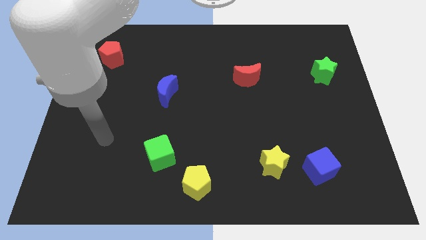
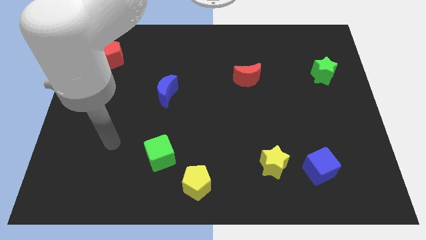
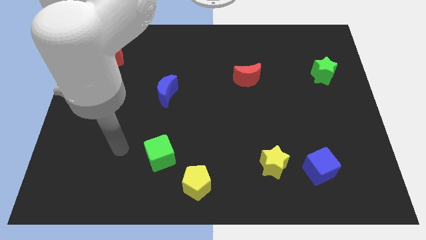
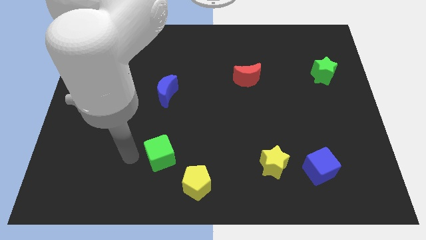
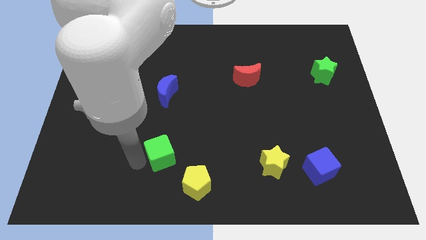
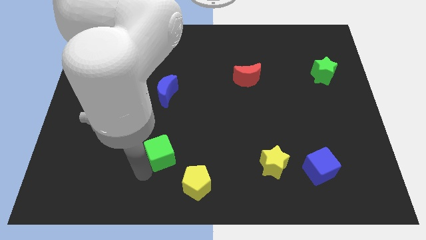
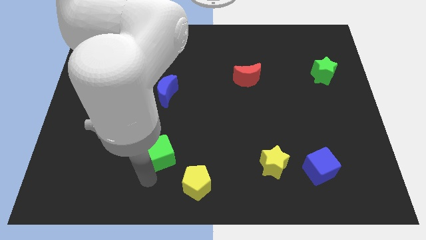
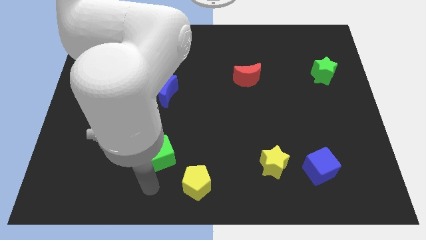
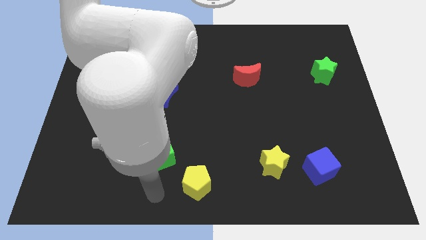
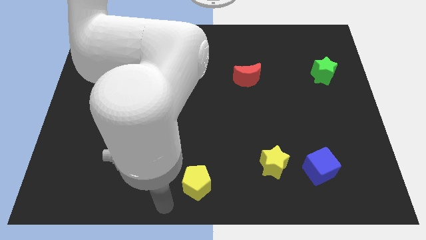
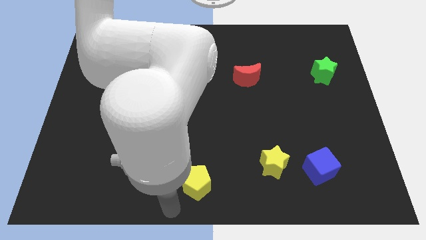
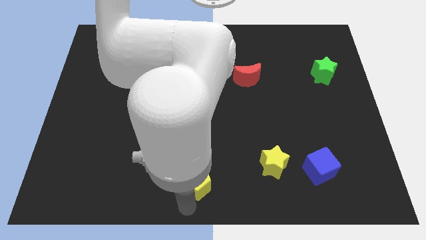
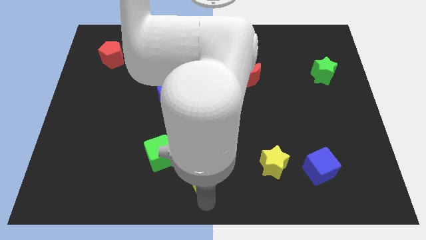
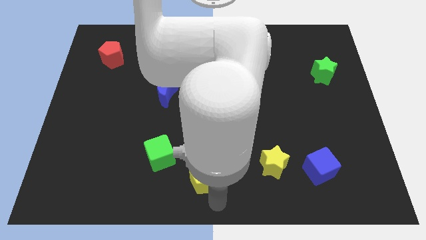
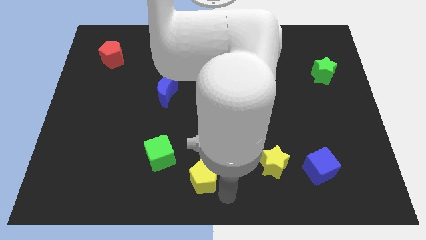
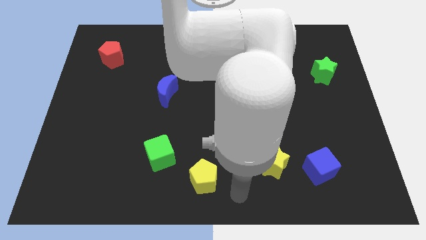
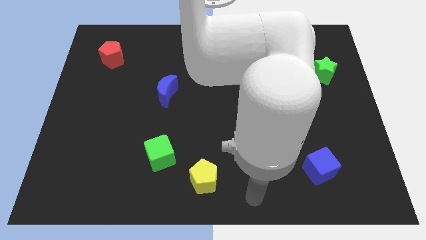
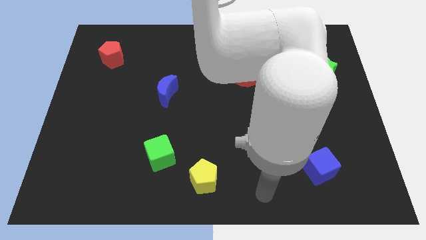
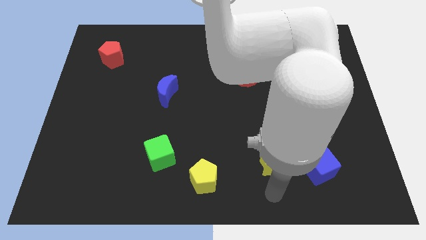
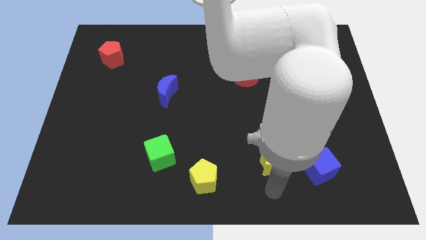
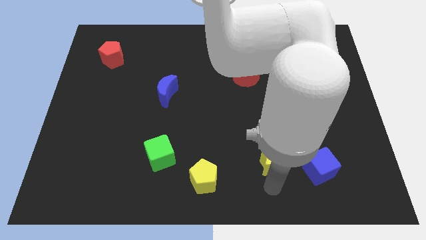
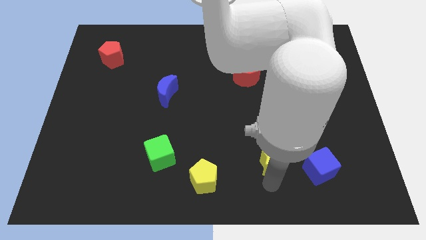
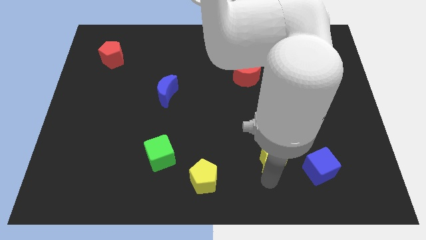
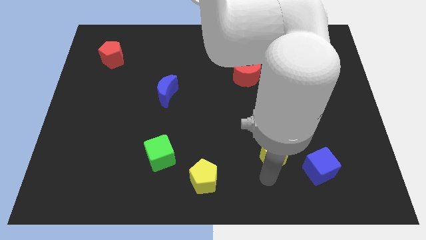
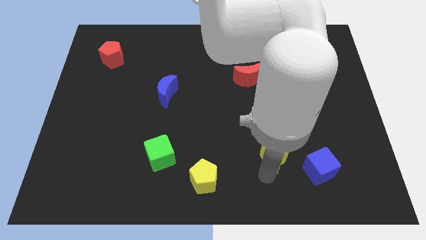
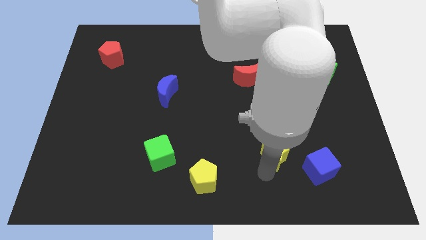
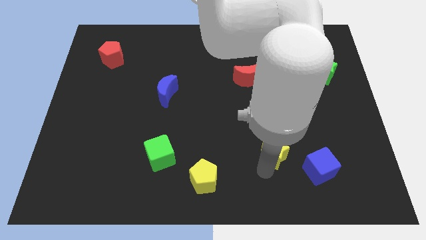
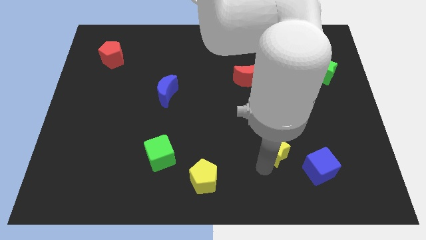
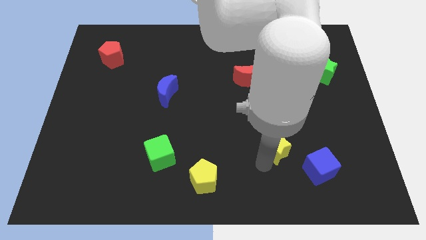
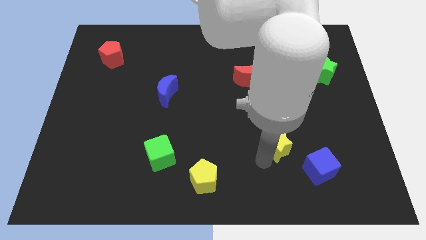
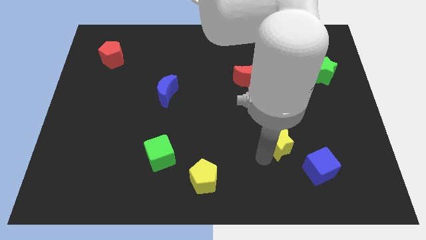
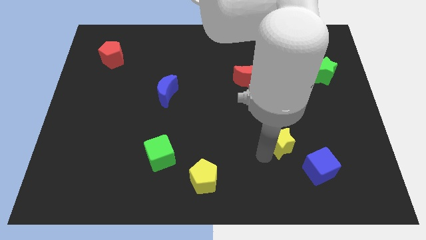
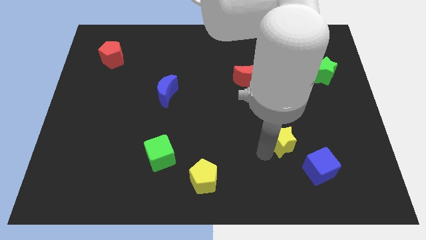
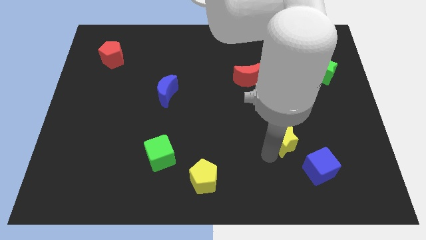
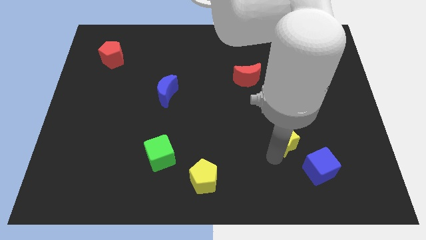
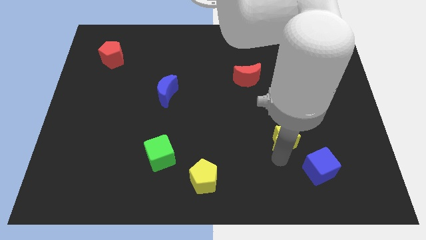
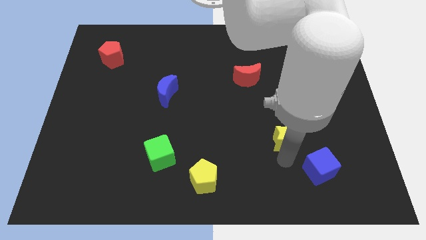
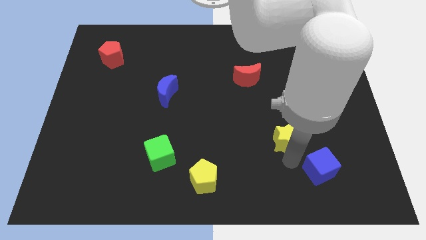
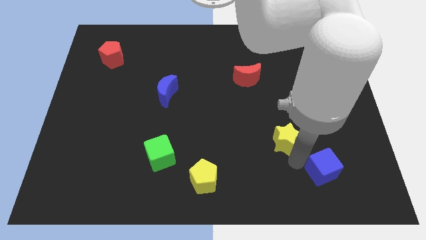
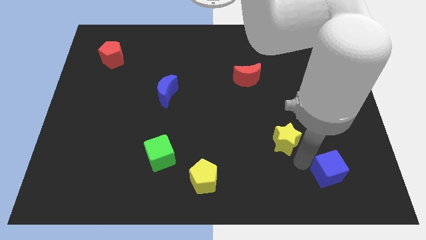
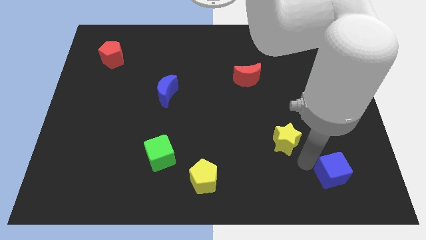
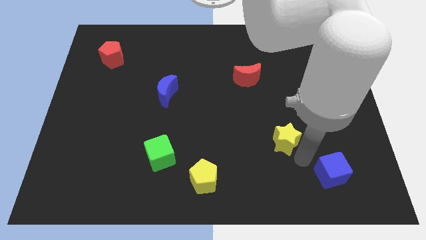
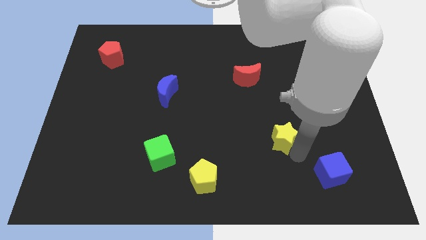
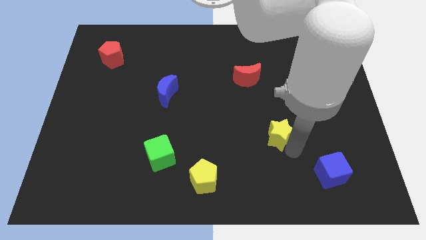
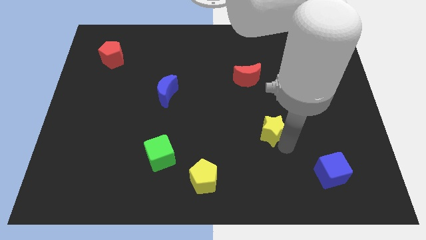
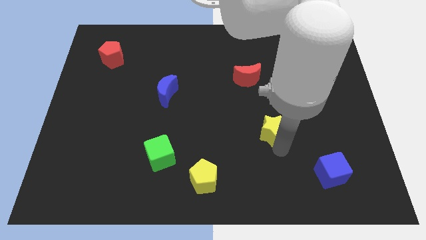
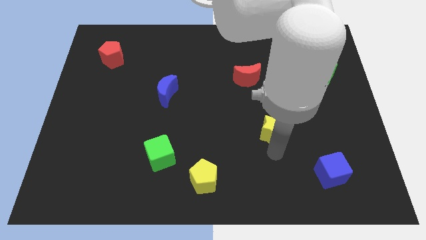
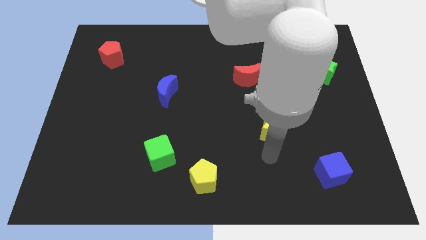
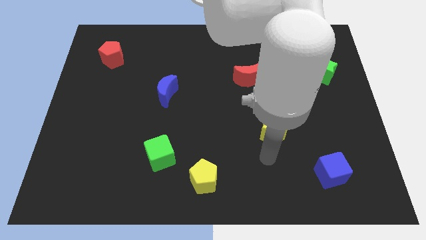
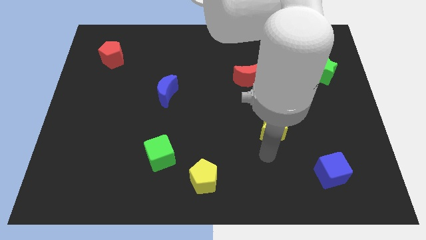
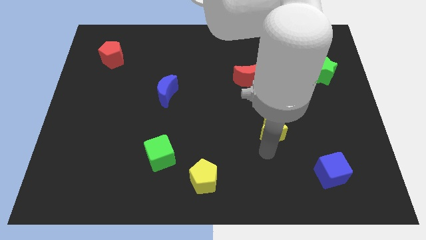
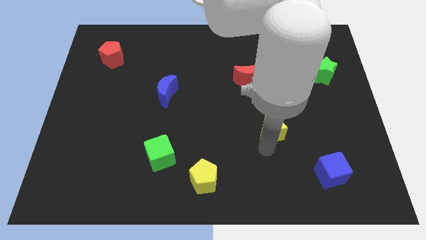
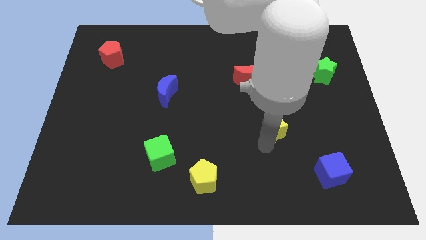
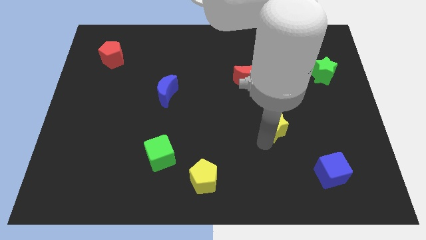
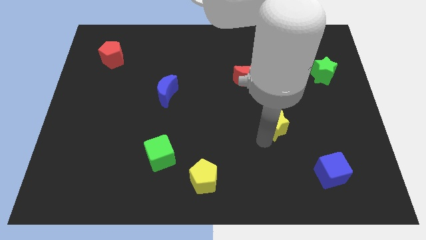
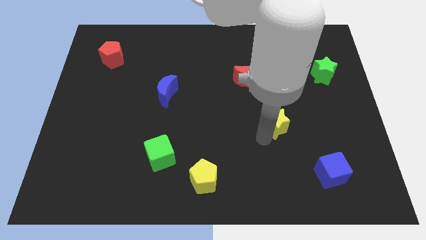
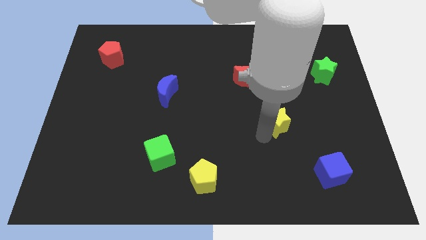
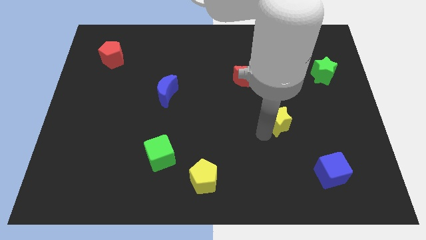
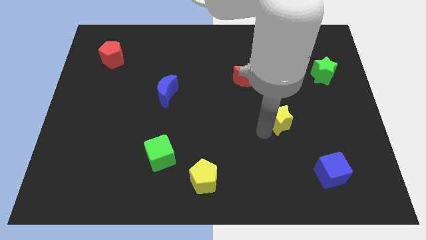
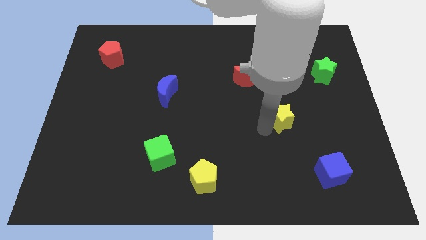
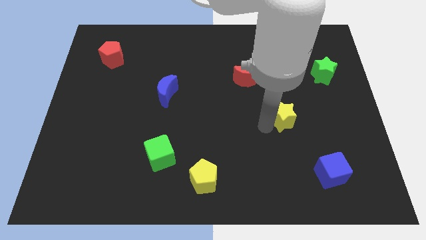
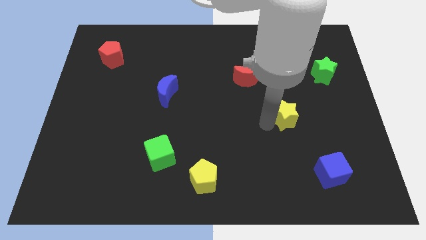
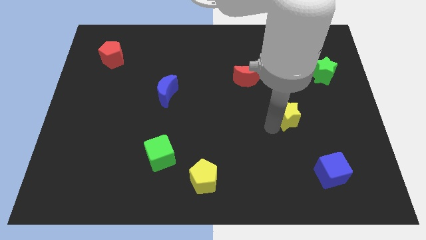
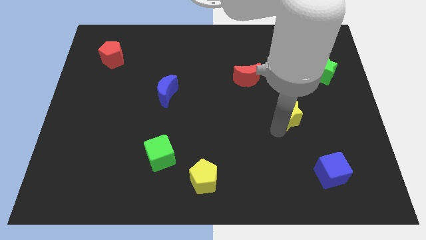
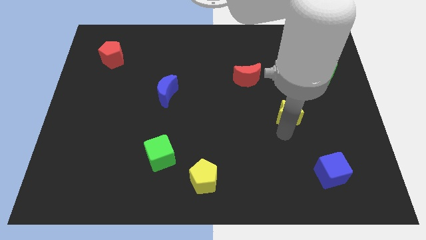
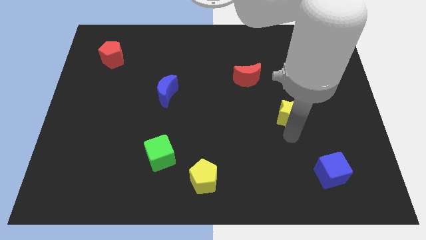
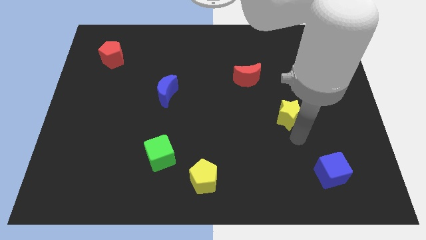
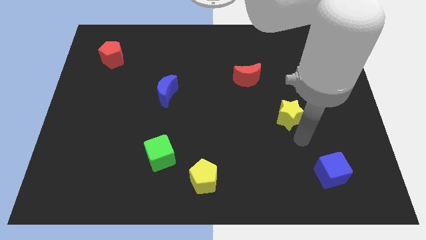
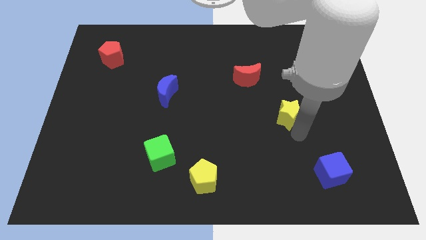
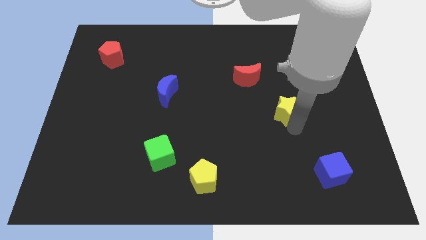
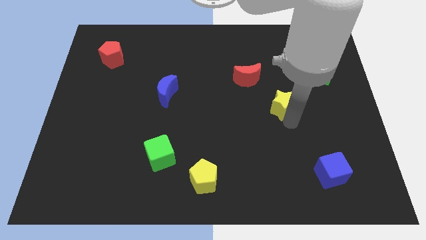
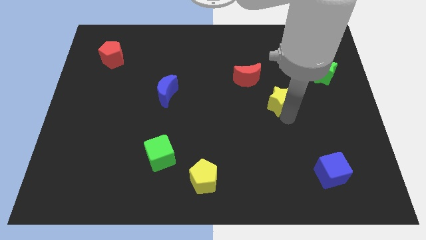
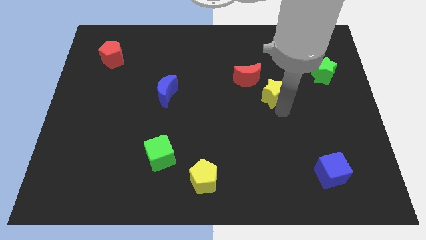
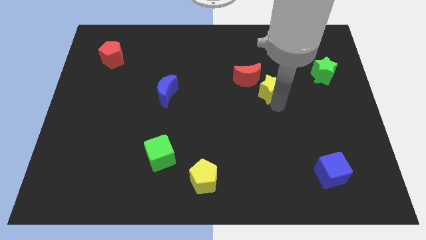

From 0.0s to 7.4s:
move the yellow star upwards

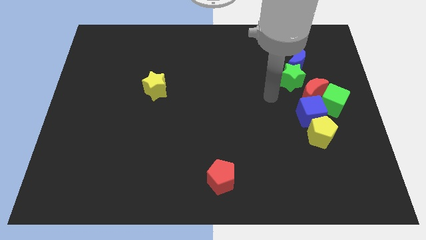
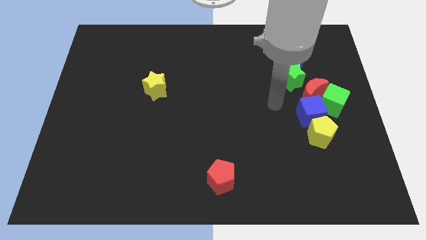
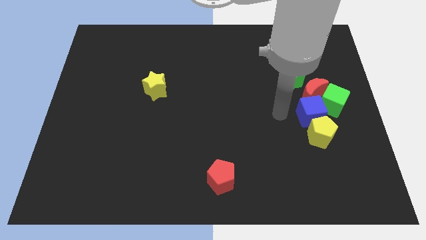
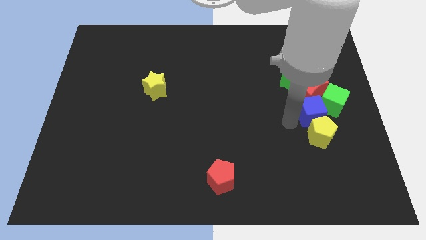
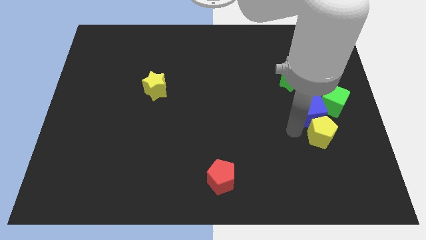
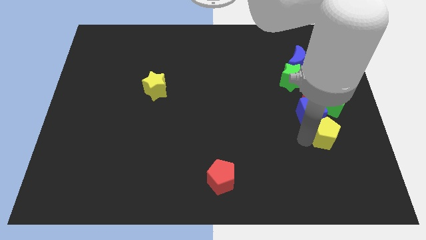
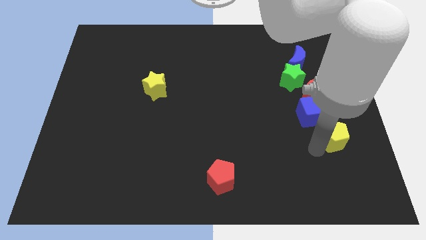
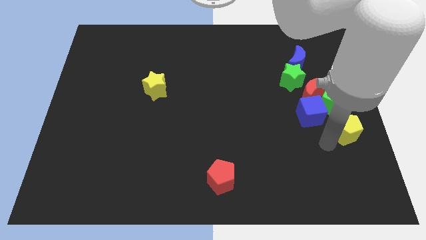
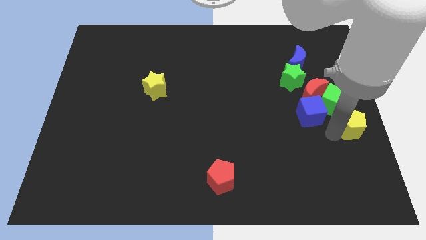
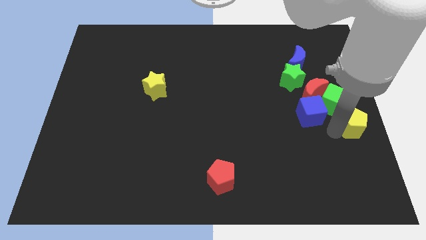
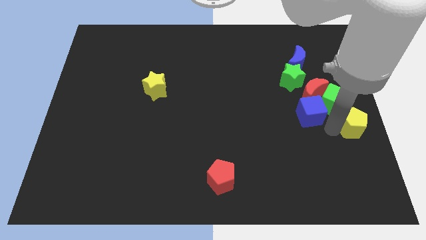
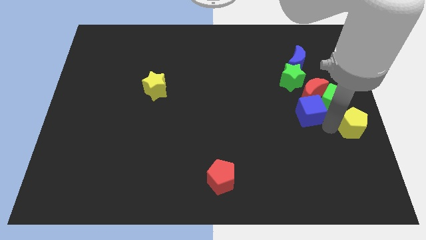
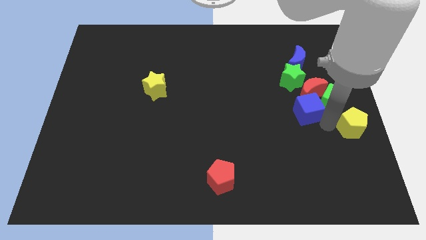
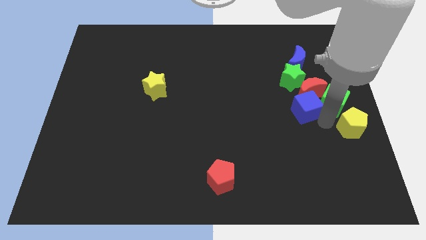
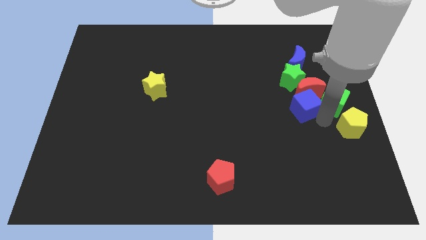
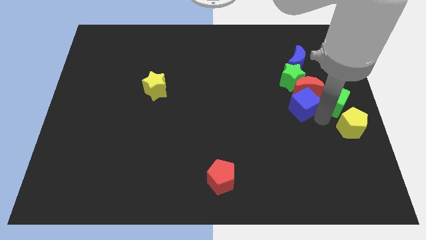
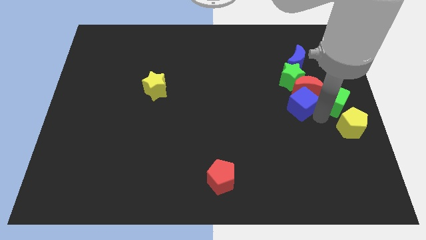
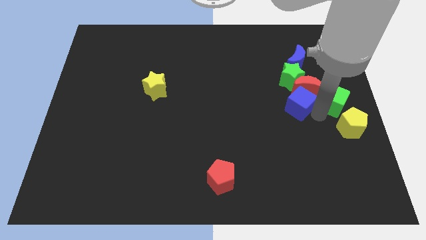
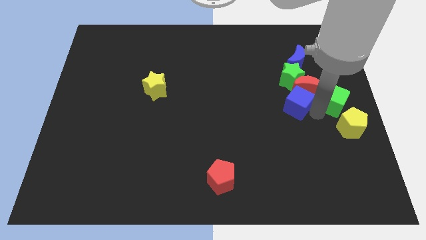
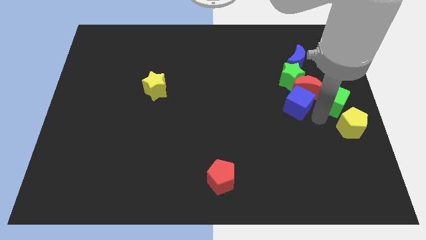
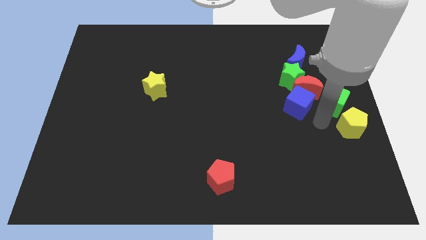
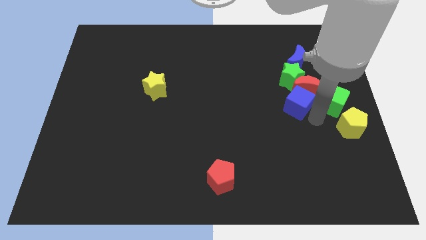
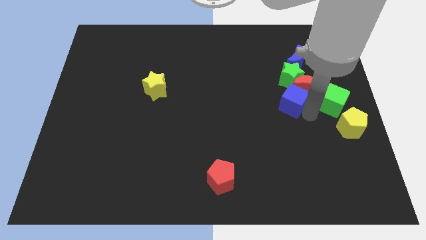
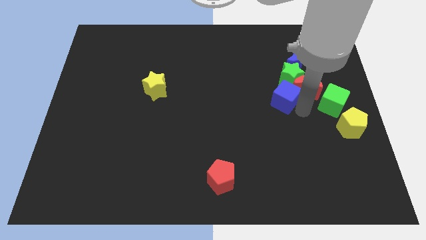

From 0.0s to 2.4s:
move the blue cube diagonally upwards and left a little bit
